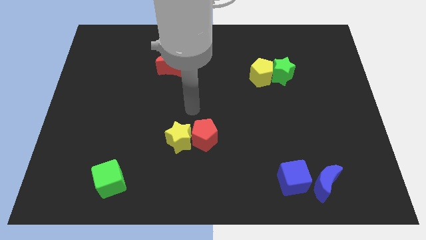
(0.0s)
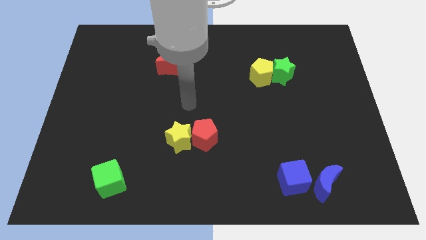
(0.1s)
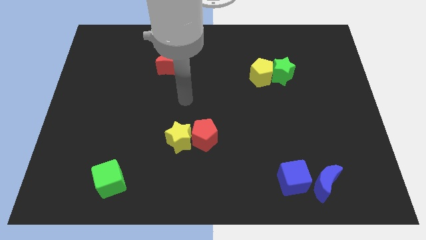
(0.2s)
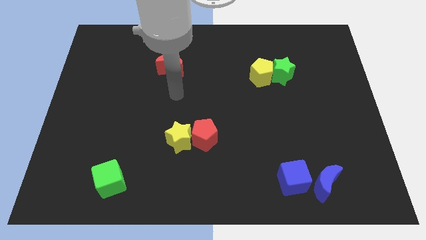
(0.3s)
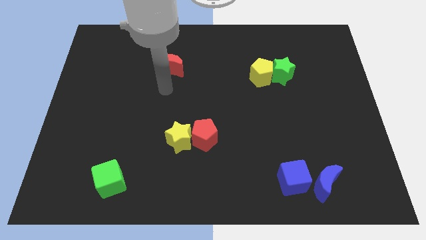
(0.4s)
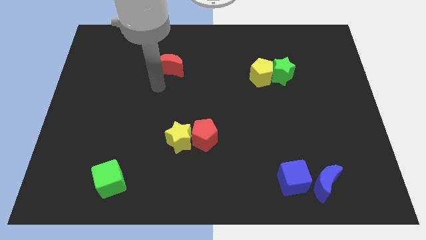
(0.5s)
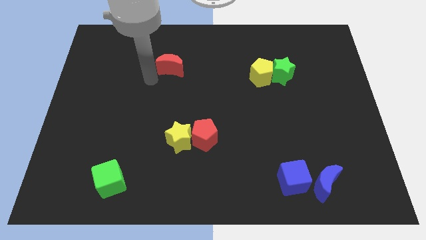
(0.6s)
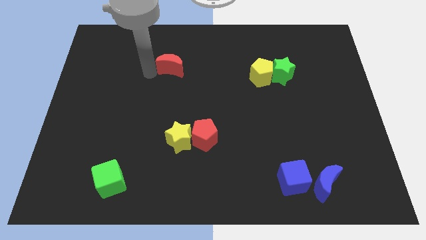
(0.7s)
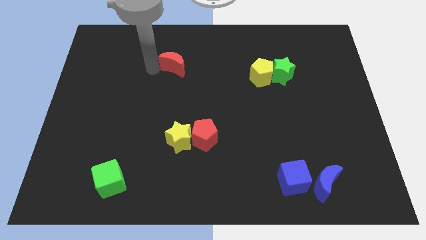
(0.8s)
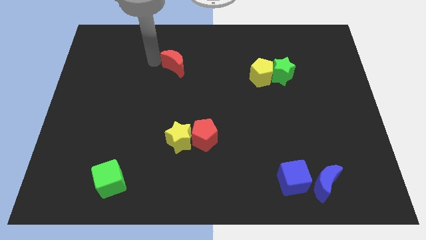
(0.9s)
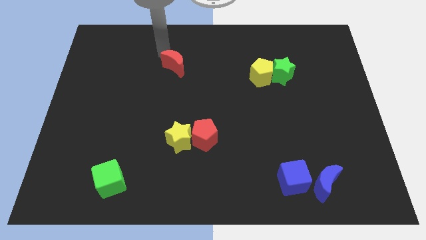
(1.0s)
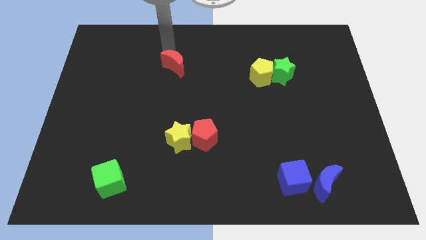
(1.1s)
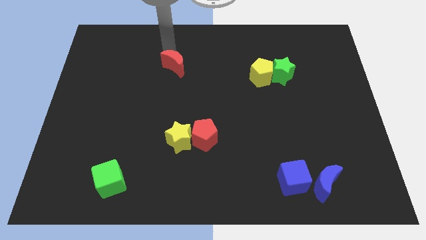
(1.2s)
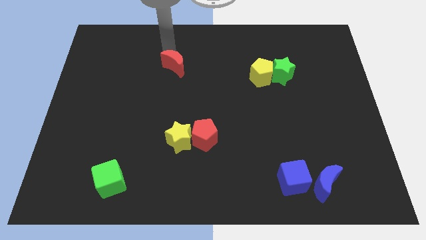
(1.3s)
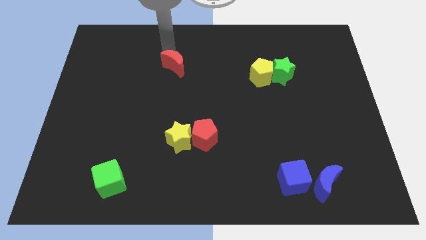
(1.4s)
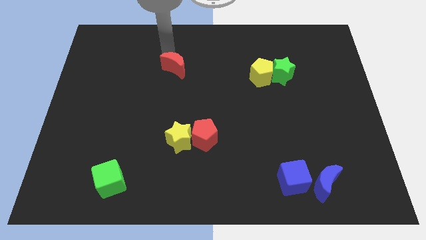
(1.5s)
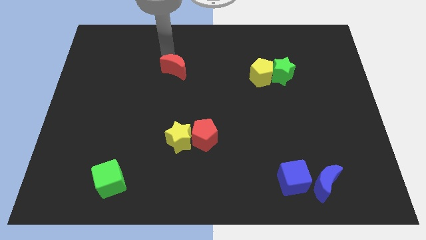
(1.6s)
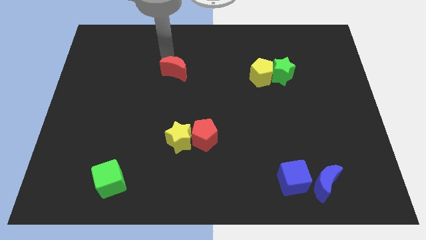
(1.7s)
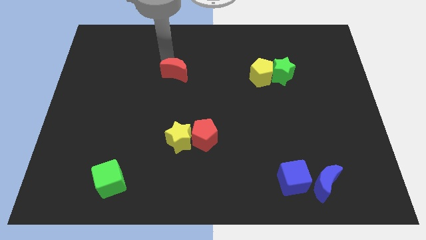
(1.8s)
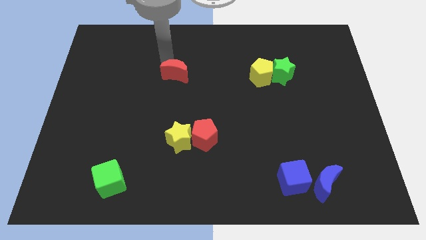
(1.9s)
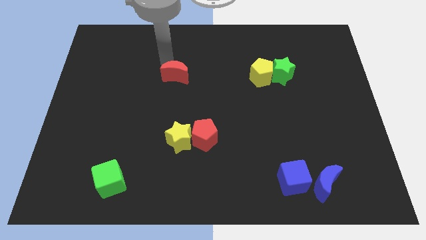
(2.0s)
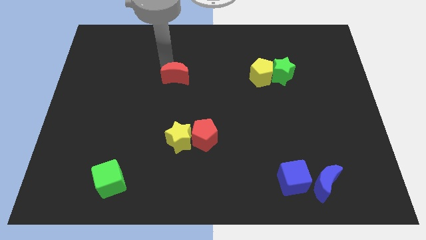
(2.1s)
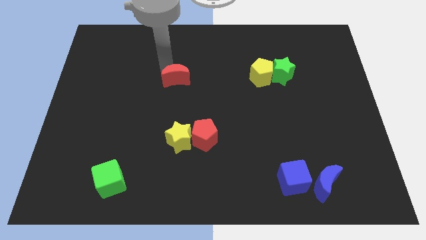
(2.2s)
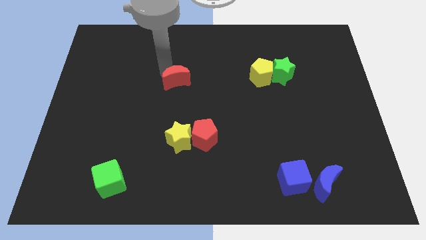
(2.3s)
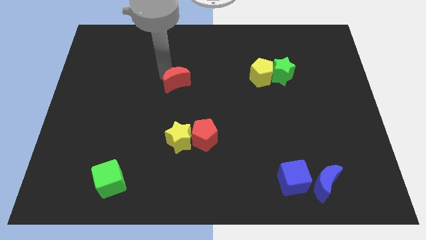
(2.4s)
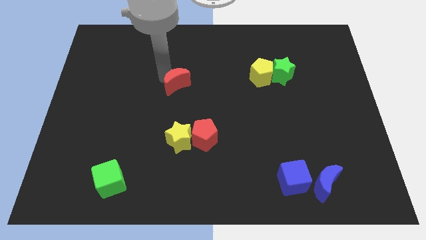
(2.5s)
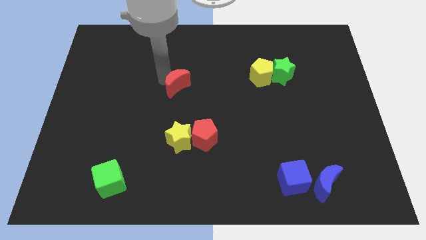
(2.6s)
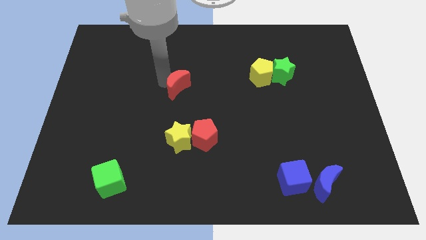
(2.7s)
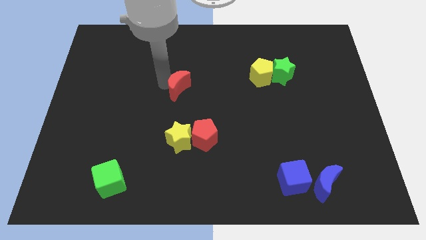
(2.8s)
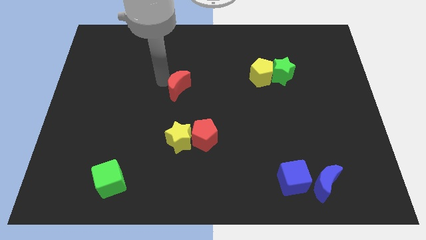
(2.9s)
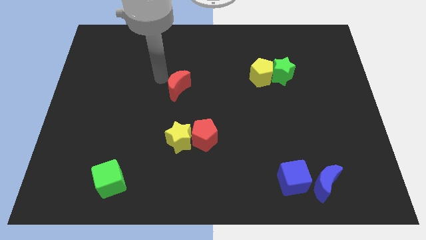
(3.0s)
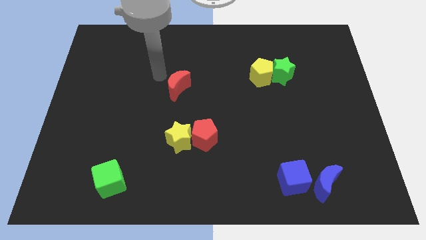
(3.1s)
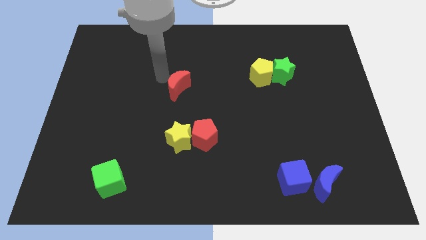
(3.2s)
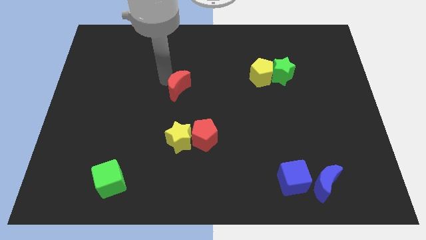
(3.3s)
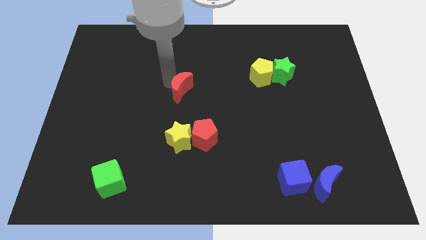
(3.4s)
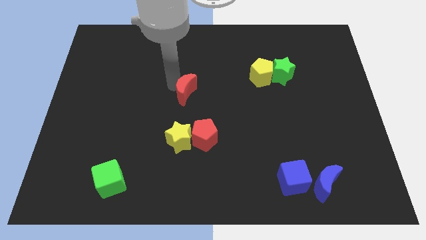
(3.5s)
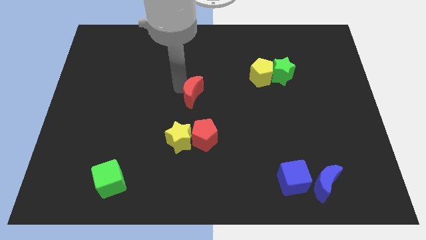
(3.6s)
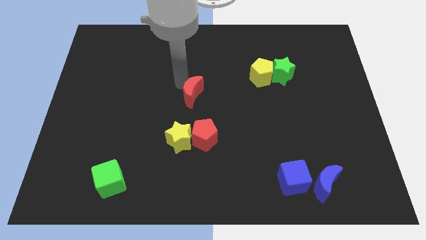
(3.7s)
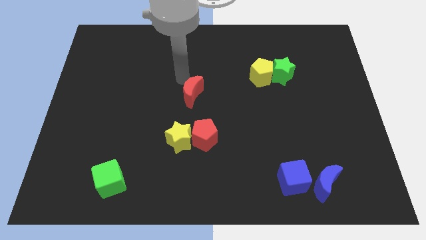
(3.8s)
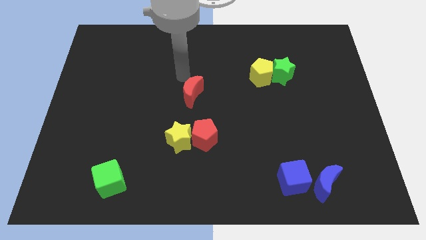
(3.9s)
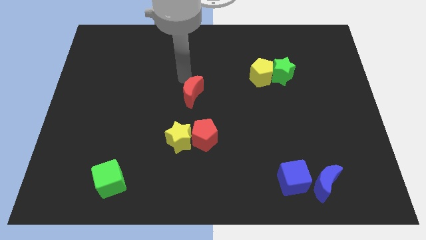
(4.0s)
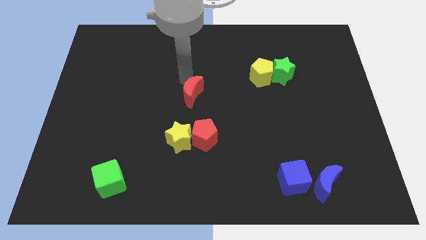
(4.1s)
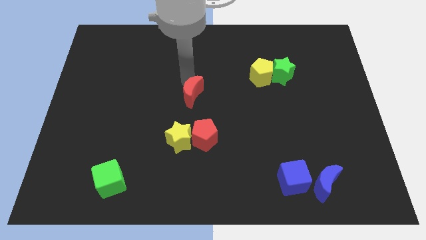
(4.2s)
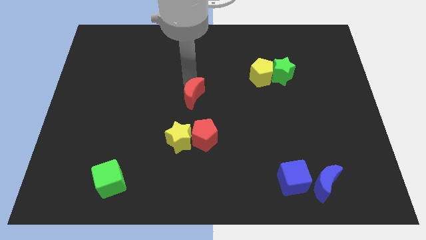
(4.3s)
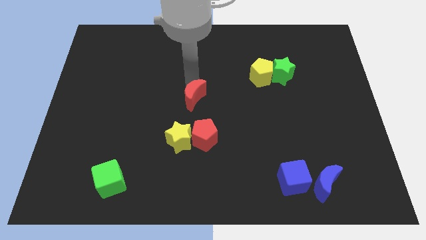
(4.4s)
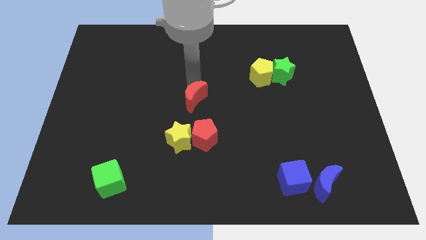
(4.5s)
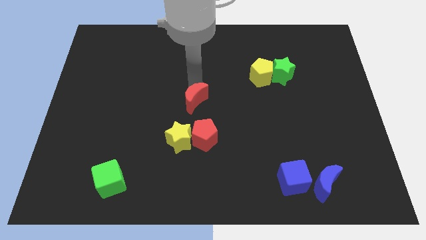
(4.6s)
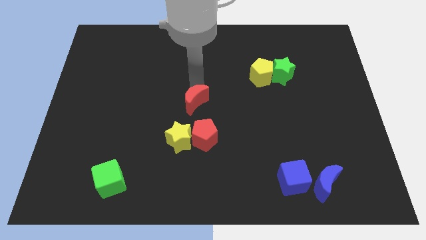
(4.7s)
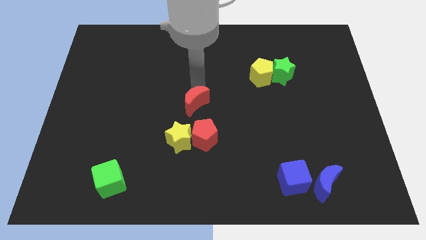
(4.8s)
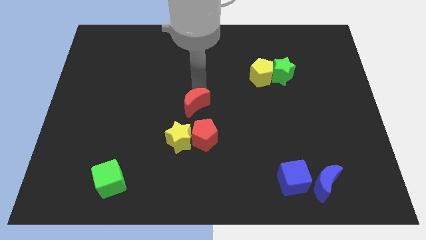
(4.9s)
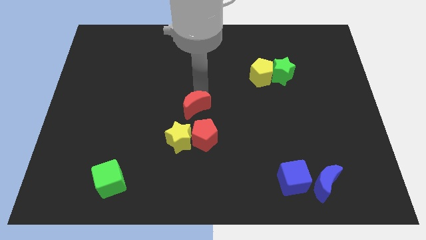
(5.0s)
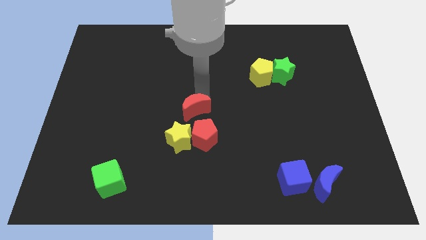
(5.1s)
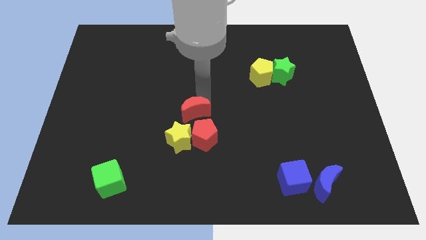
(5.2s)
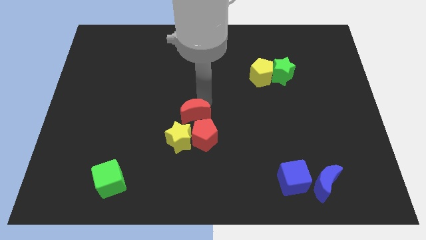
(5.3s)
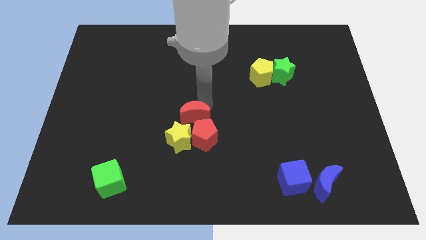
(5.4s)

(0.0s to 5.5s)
put the red moon to the red pentagon
